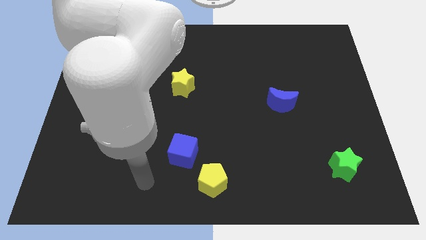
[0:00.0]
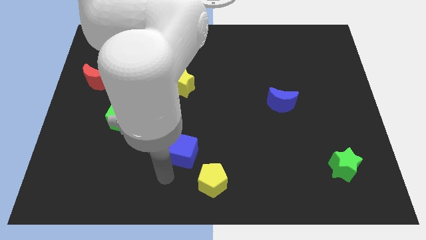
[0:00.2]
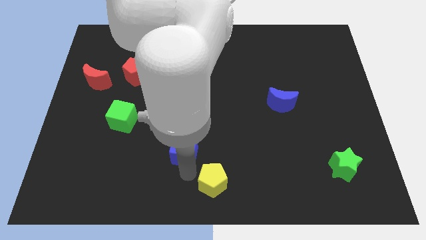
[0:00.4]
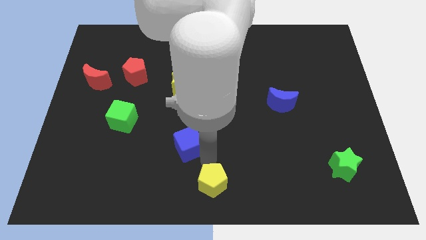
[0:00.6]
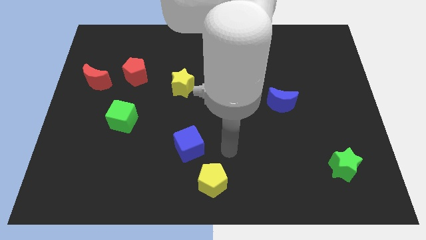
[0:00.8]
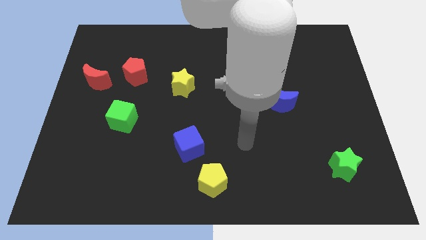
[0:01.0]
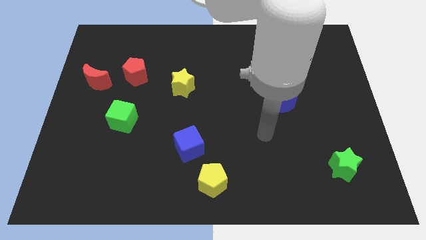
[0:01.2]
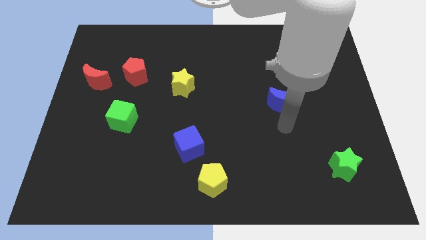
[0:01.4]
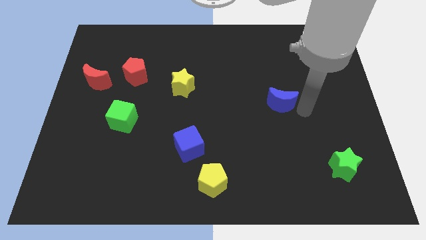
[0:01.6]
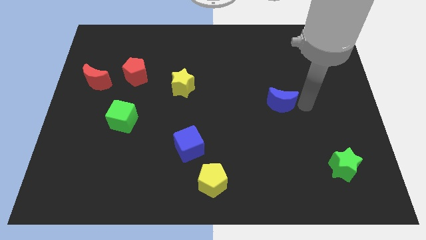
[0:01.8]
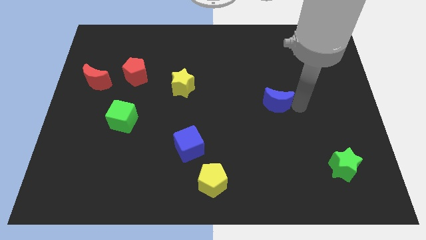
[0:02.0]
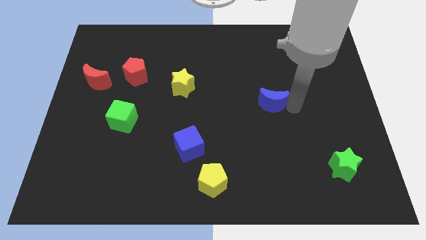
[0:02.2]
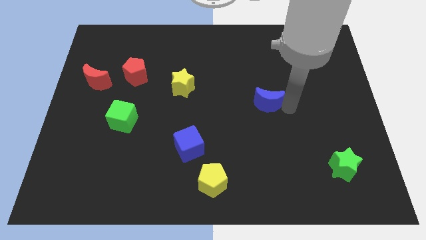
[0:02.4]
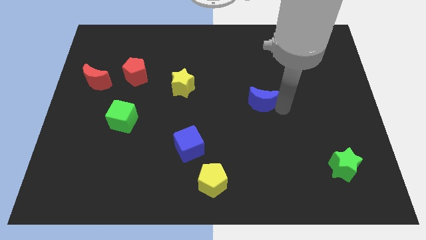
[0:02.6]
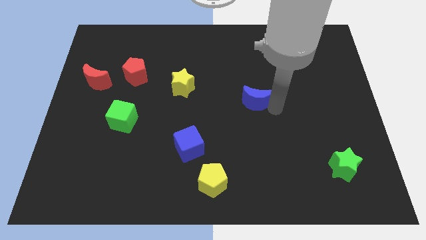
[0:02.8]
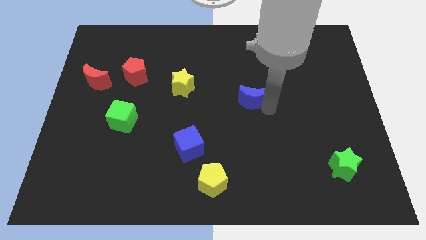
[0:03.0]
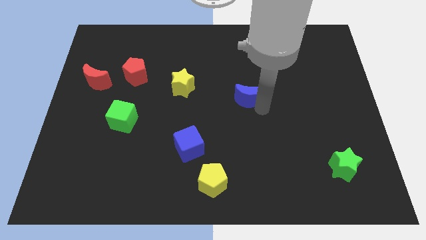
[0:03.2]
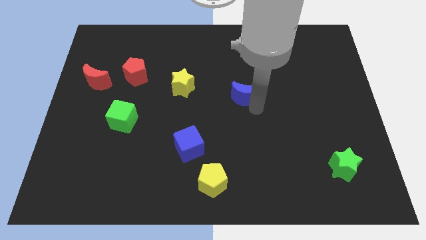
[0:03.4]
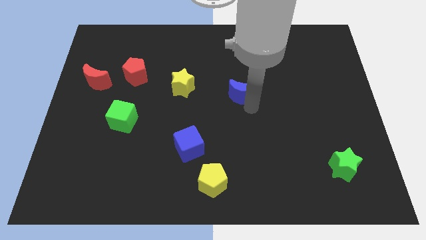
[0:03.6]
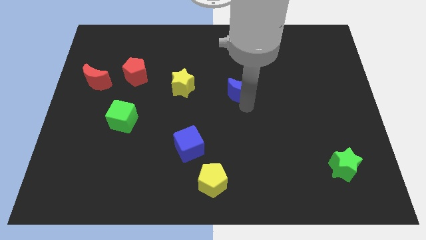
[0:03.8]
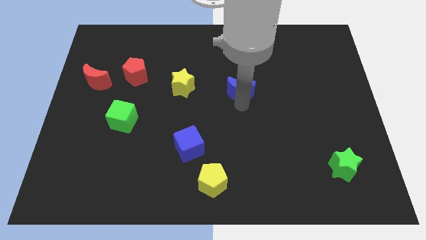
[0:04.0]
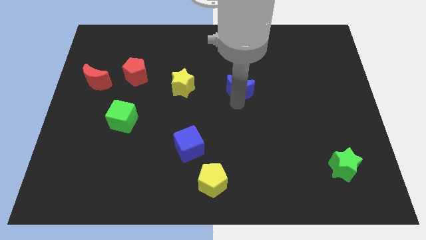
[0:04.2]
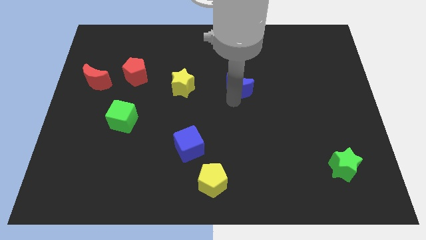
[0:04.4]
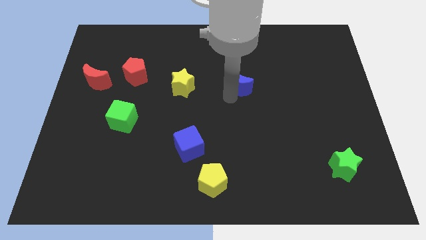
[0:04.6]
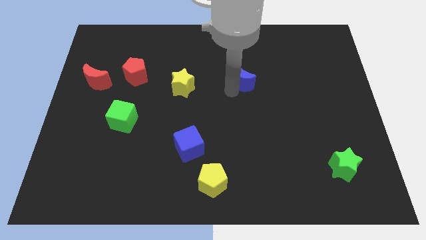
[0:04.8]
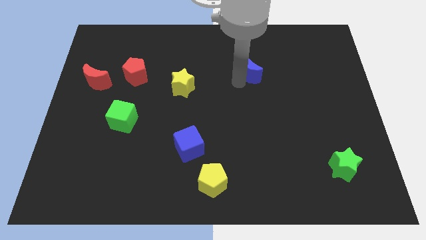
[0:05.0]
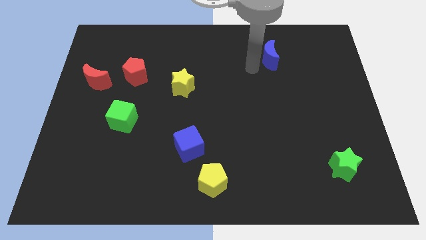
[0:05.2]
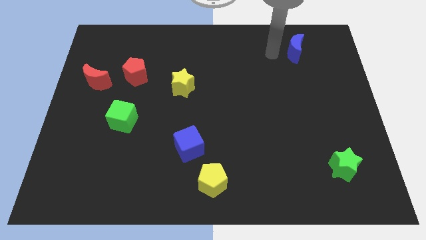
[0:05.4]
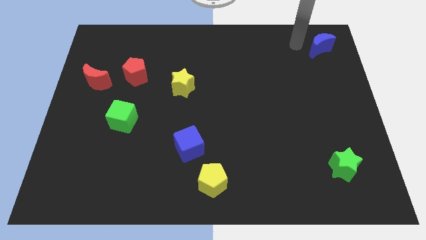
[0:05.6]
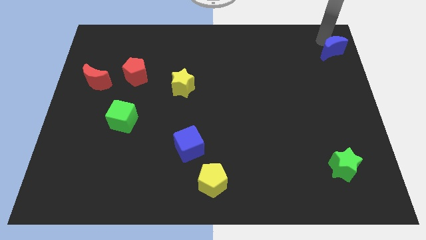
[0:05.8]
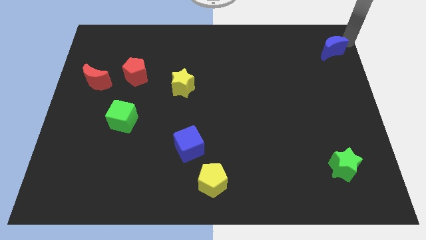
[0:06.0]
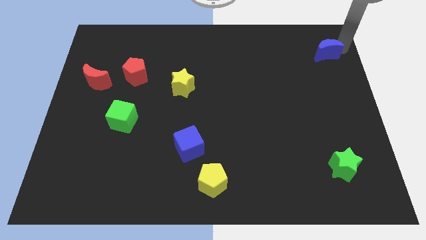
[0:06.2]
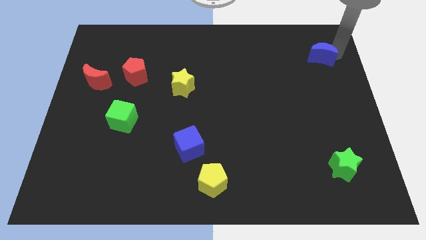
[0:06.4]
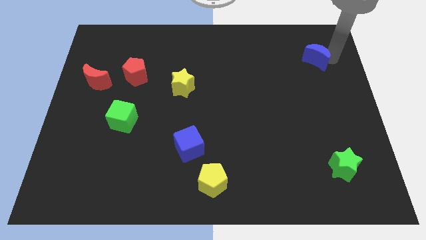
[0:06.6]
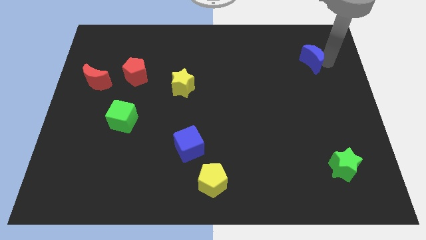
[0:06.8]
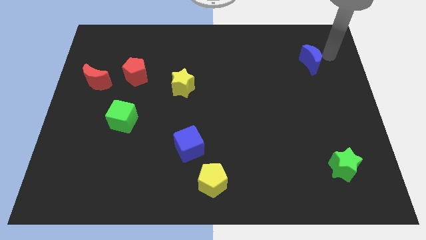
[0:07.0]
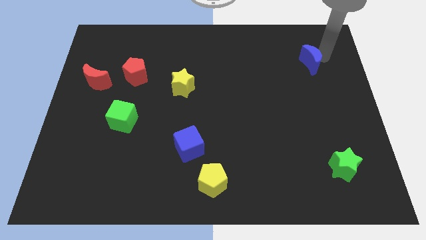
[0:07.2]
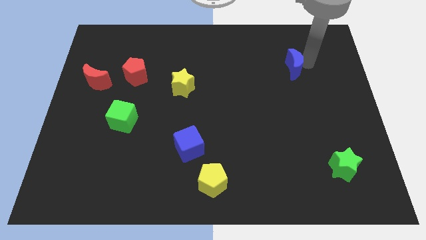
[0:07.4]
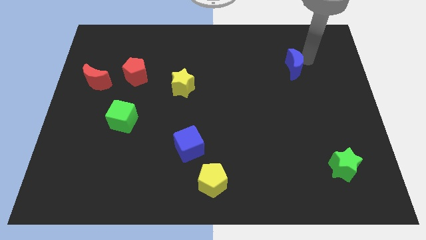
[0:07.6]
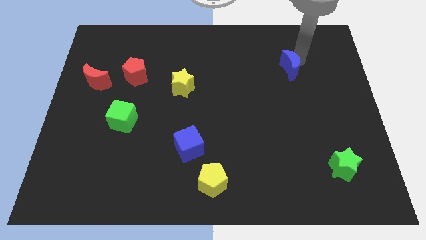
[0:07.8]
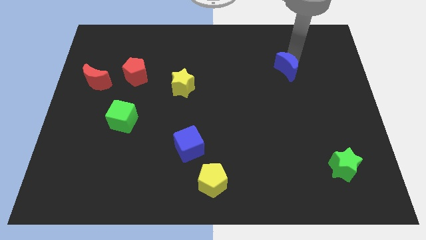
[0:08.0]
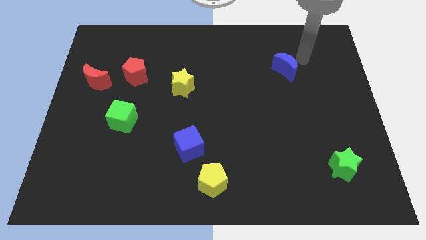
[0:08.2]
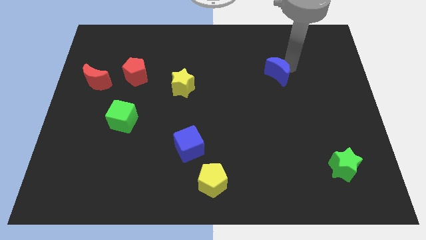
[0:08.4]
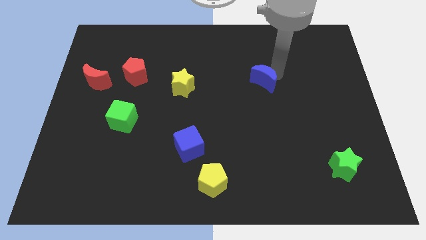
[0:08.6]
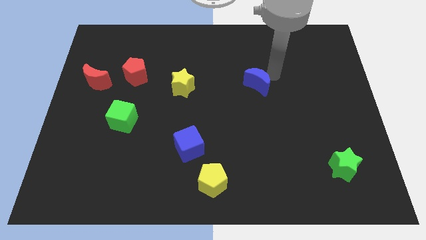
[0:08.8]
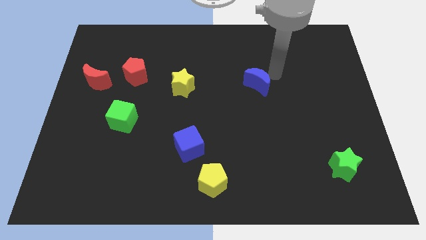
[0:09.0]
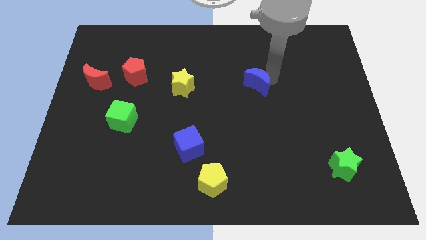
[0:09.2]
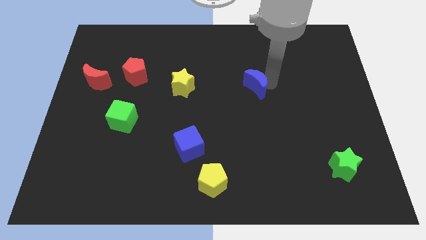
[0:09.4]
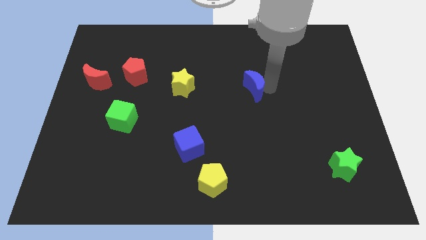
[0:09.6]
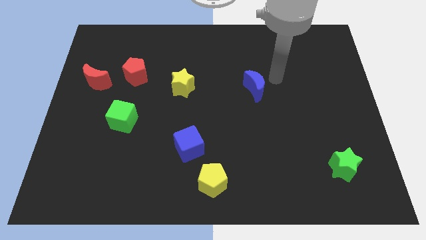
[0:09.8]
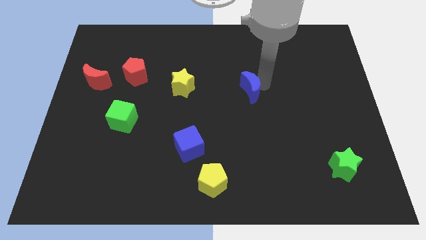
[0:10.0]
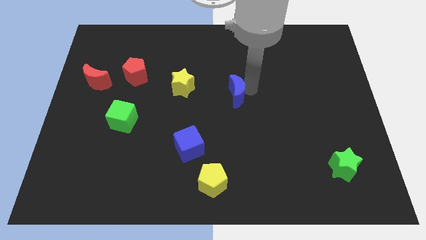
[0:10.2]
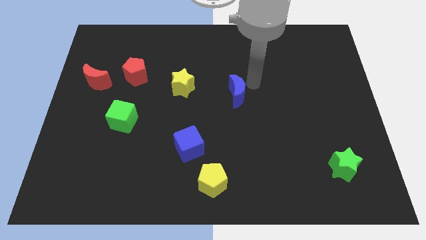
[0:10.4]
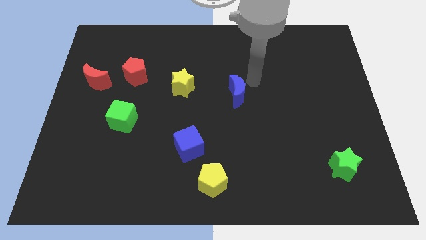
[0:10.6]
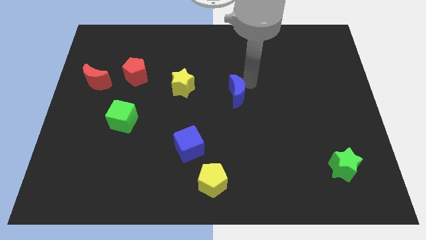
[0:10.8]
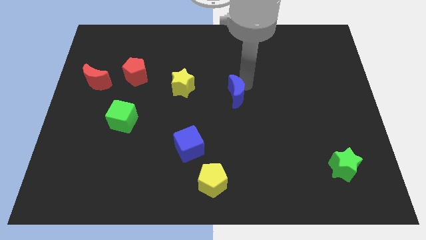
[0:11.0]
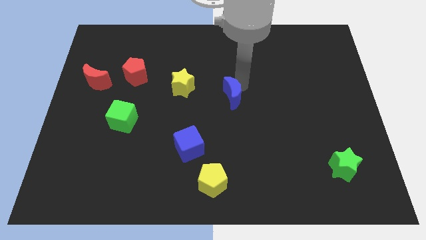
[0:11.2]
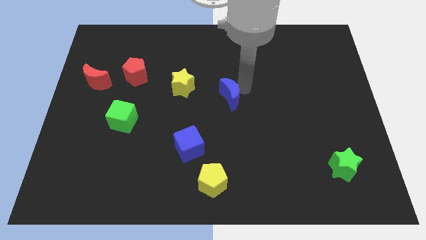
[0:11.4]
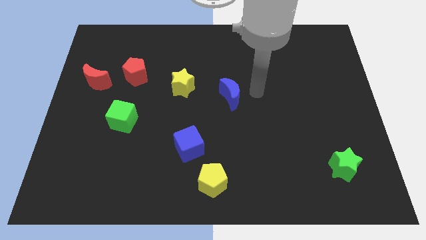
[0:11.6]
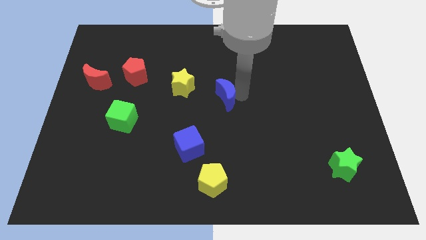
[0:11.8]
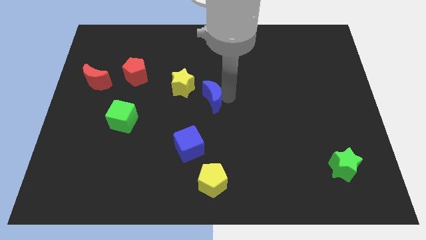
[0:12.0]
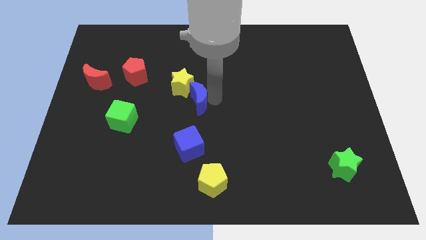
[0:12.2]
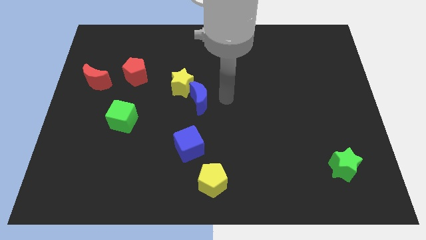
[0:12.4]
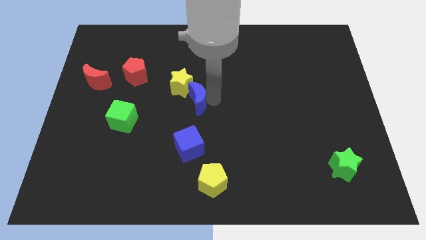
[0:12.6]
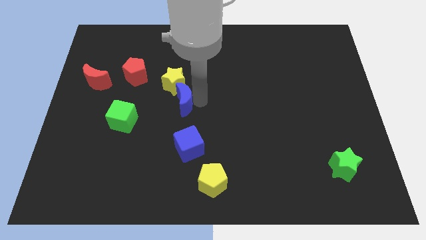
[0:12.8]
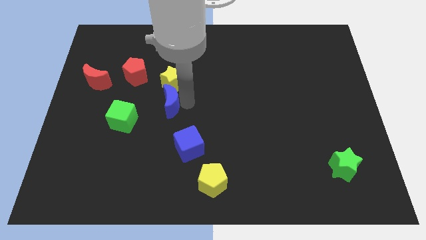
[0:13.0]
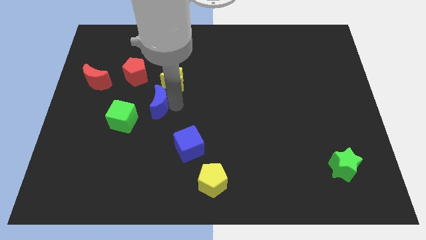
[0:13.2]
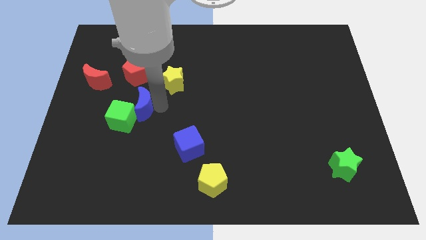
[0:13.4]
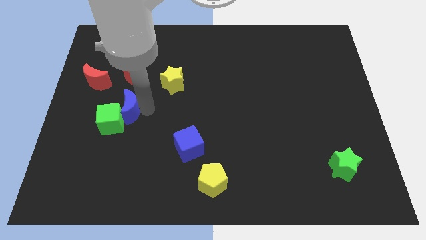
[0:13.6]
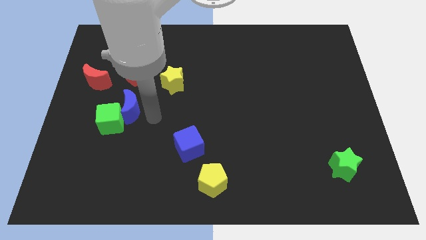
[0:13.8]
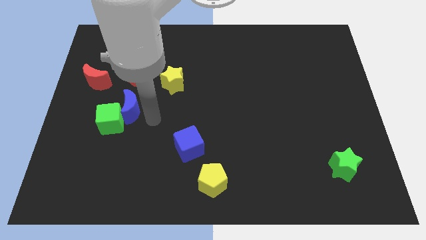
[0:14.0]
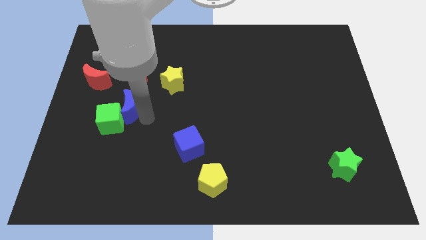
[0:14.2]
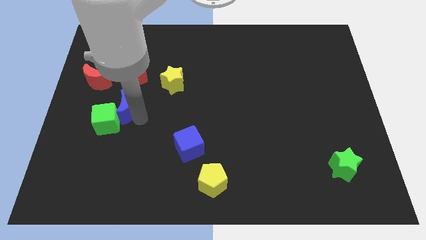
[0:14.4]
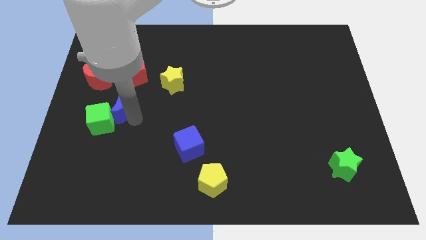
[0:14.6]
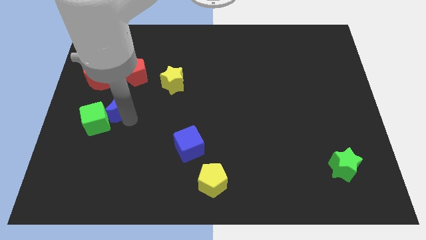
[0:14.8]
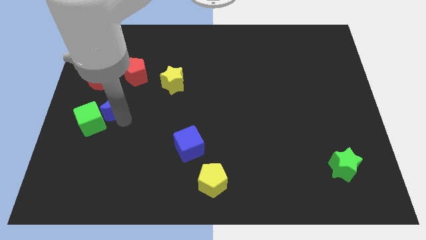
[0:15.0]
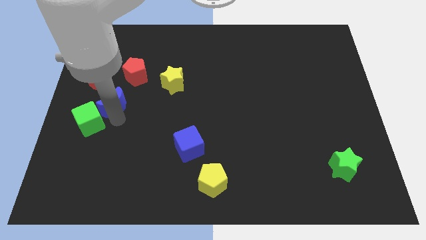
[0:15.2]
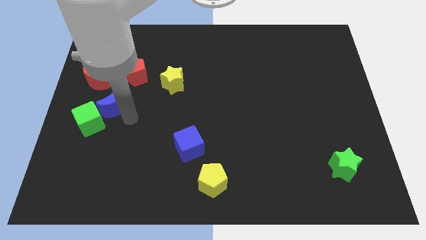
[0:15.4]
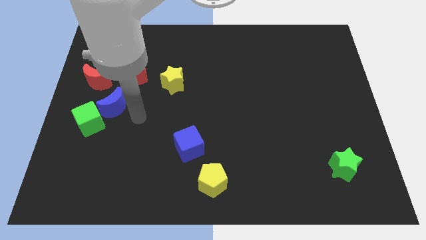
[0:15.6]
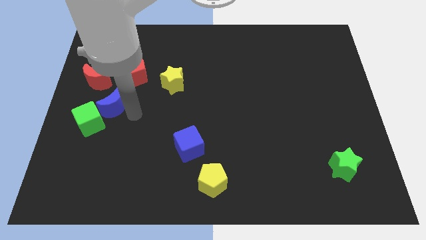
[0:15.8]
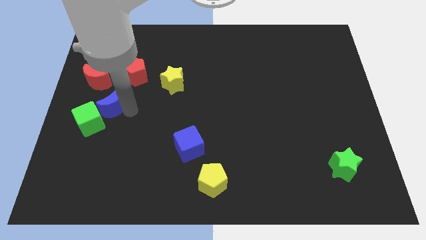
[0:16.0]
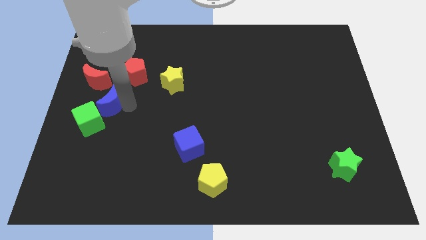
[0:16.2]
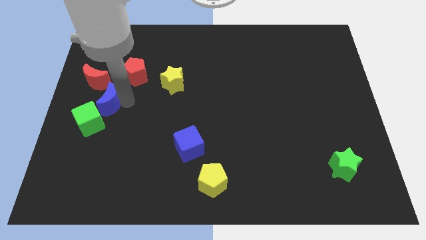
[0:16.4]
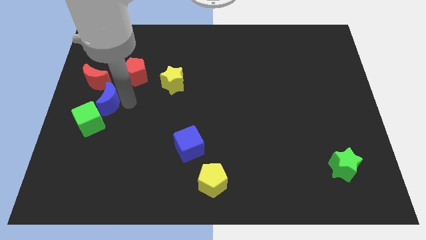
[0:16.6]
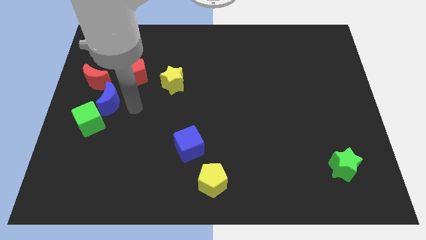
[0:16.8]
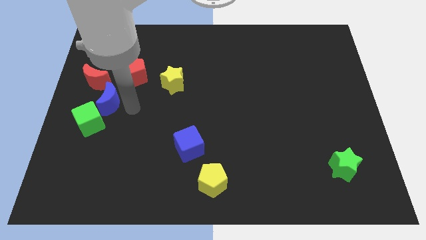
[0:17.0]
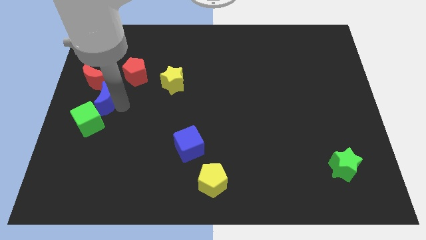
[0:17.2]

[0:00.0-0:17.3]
slide the blue moon to the left side
